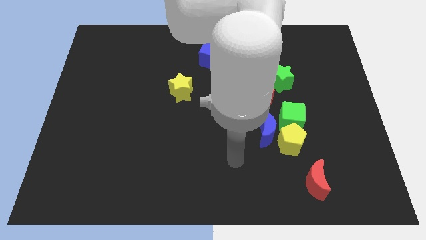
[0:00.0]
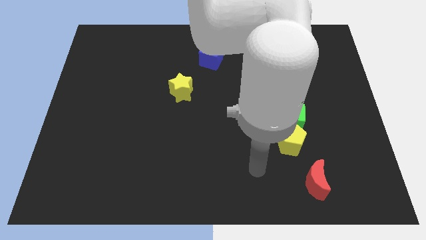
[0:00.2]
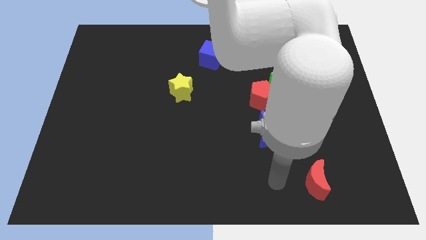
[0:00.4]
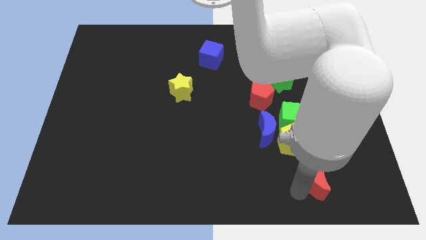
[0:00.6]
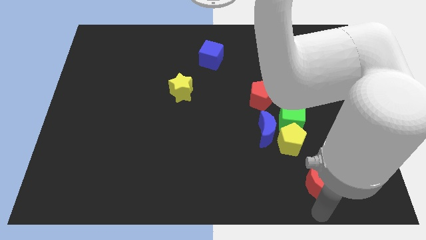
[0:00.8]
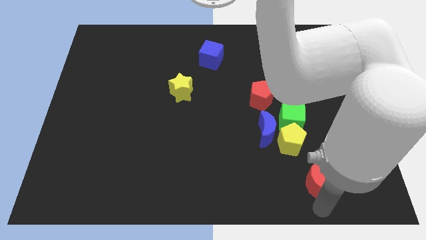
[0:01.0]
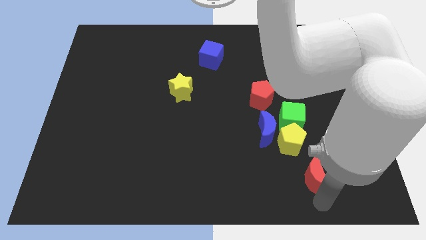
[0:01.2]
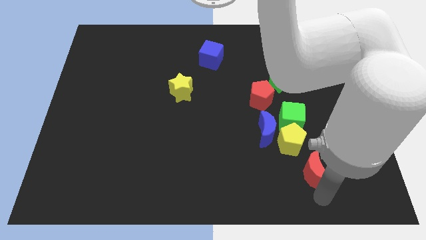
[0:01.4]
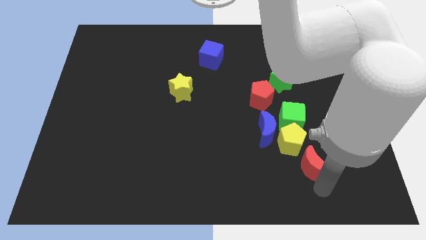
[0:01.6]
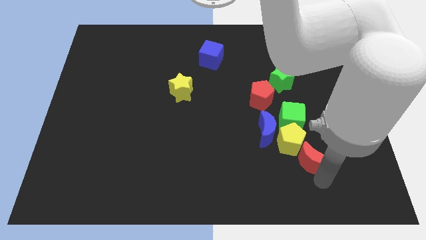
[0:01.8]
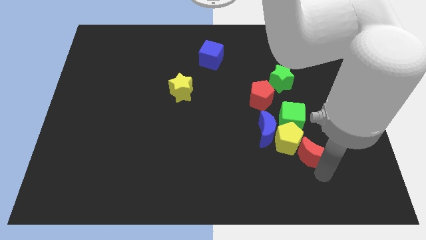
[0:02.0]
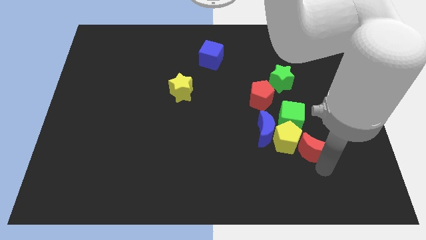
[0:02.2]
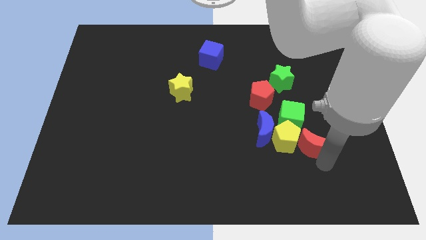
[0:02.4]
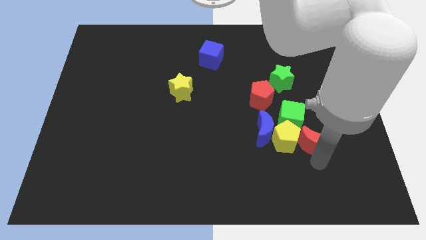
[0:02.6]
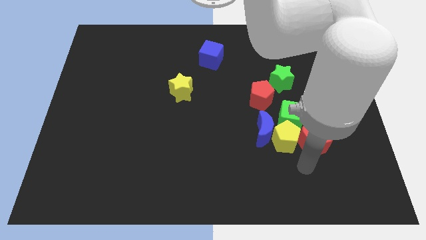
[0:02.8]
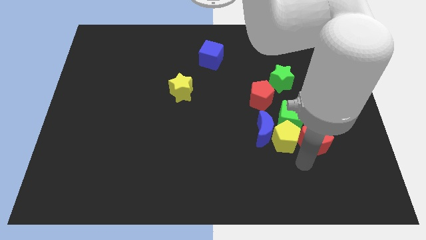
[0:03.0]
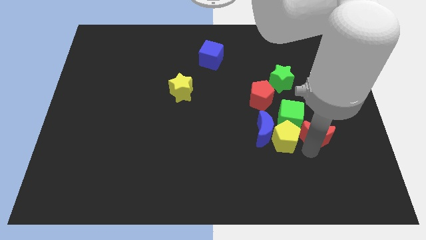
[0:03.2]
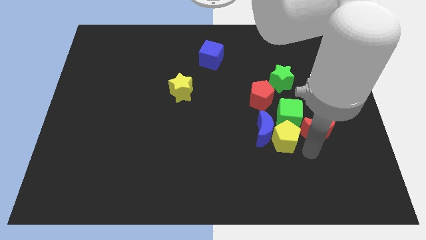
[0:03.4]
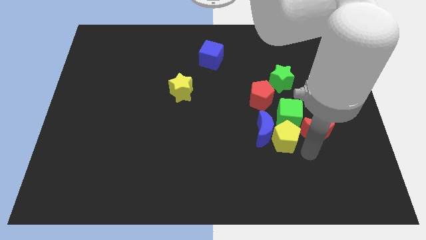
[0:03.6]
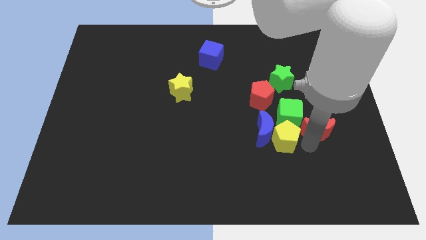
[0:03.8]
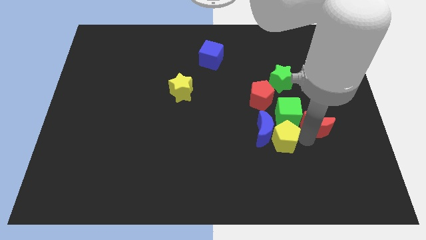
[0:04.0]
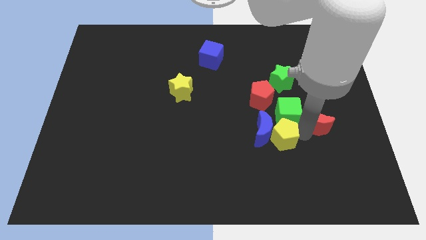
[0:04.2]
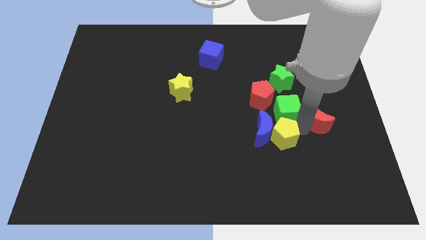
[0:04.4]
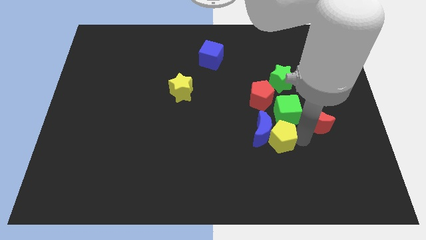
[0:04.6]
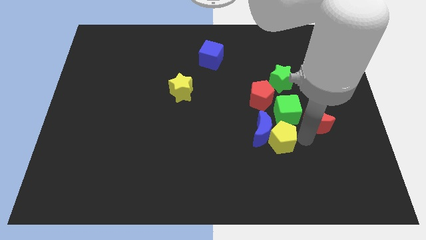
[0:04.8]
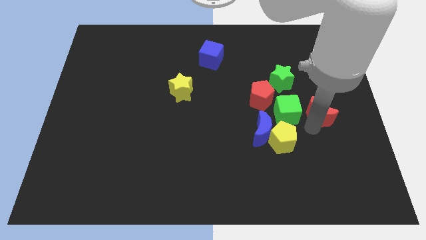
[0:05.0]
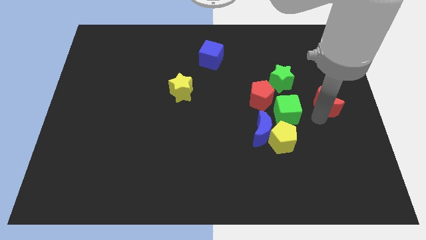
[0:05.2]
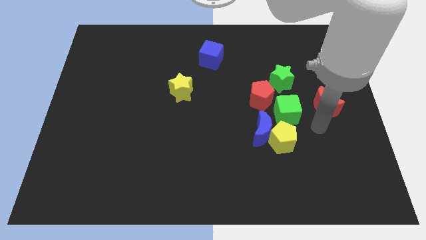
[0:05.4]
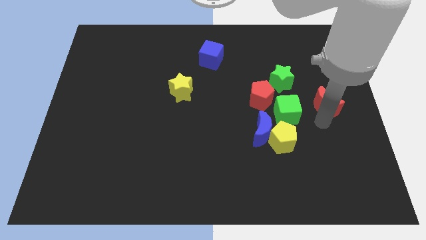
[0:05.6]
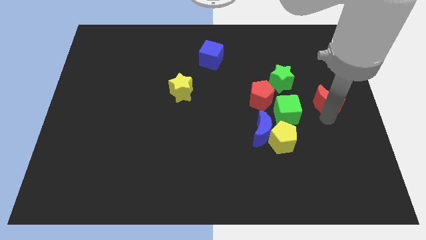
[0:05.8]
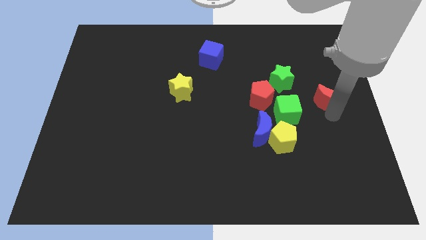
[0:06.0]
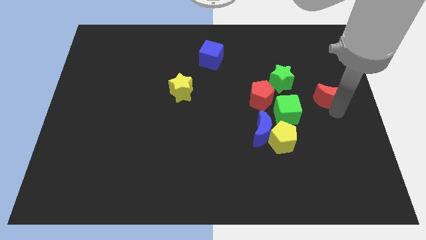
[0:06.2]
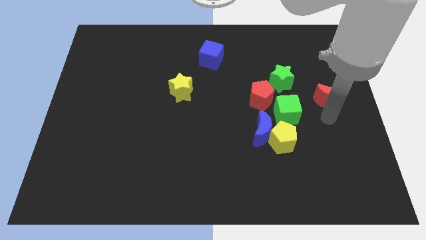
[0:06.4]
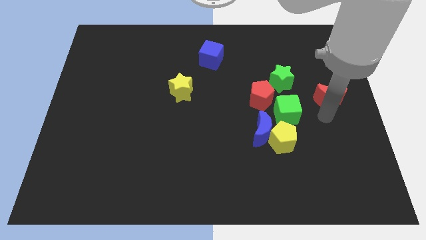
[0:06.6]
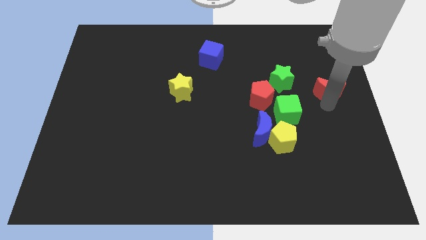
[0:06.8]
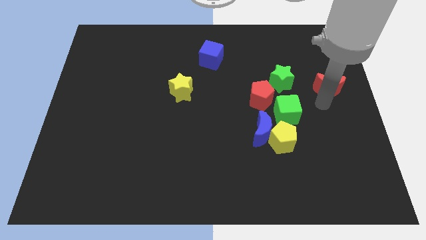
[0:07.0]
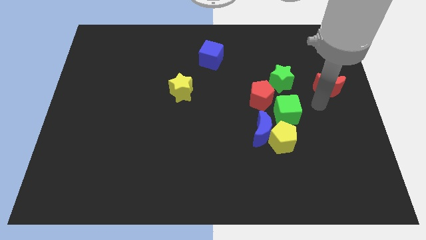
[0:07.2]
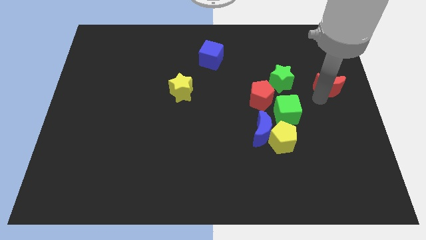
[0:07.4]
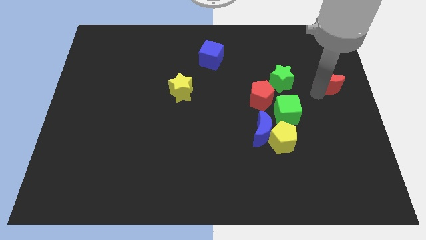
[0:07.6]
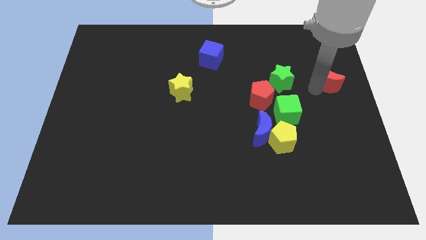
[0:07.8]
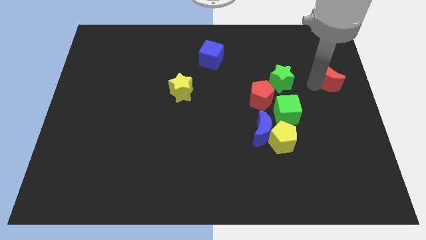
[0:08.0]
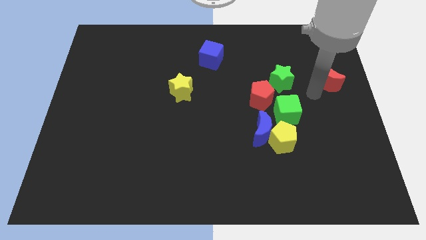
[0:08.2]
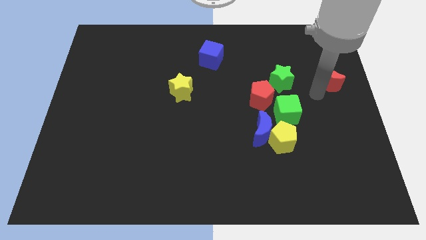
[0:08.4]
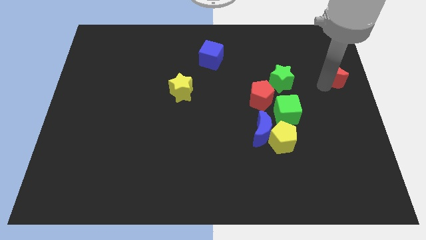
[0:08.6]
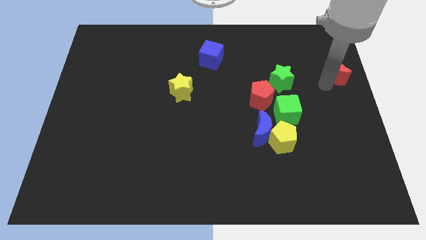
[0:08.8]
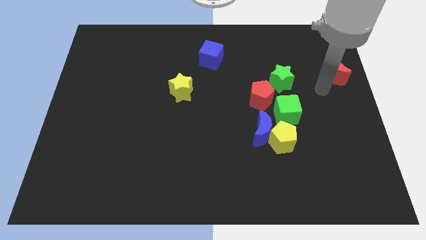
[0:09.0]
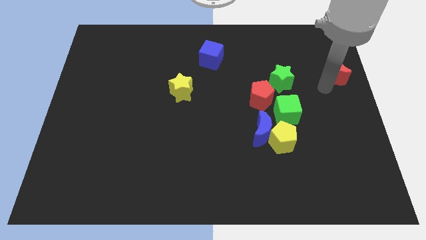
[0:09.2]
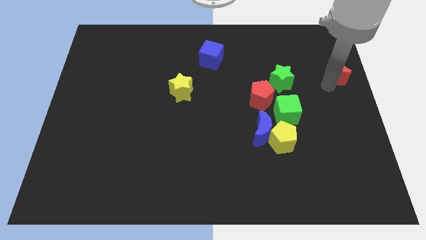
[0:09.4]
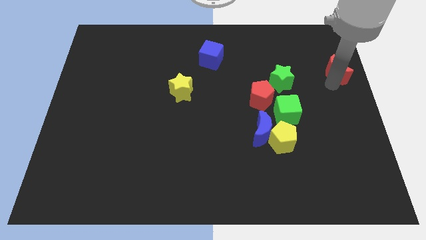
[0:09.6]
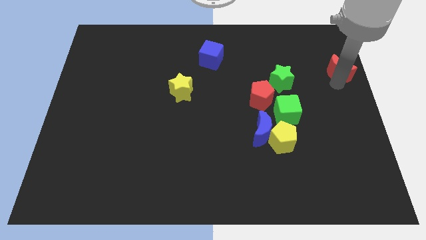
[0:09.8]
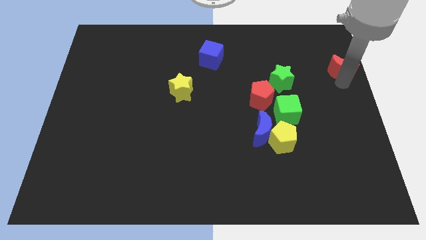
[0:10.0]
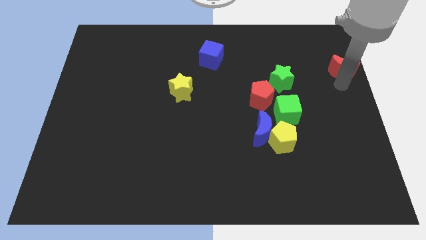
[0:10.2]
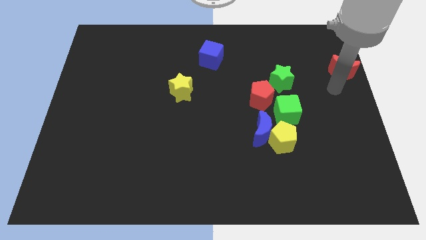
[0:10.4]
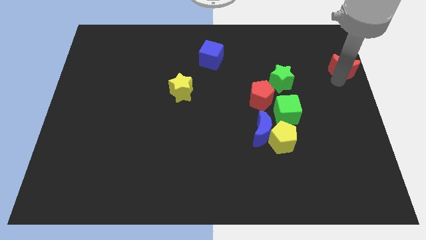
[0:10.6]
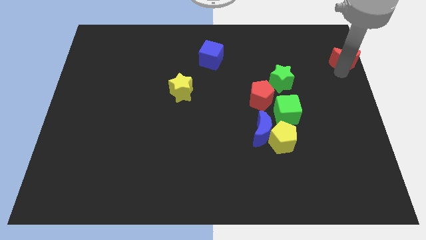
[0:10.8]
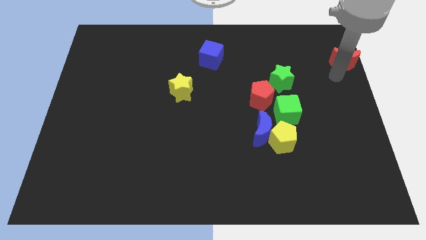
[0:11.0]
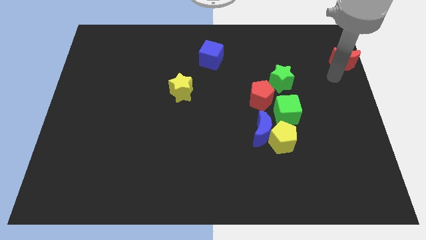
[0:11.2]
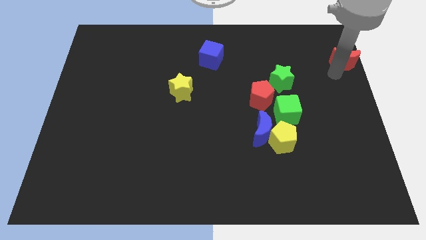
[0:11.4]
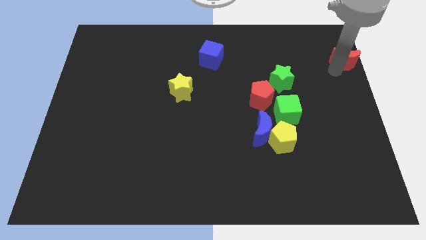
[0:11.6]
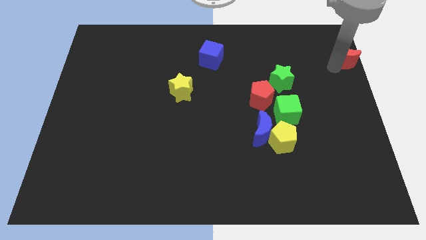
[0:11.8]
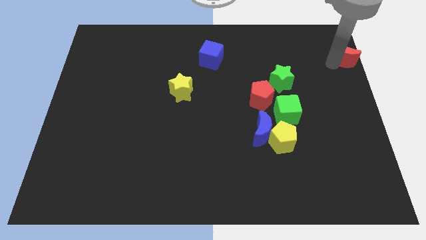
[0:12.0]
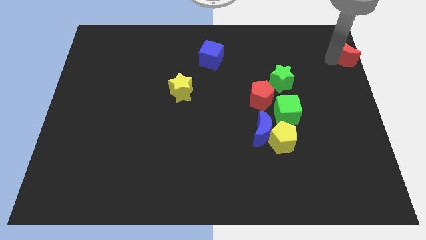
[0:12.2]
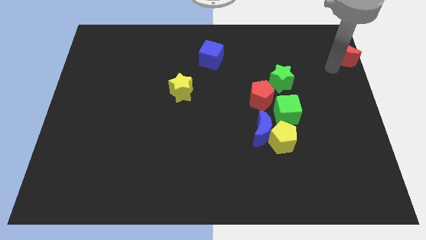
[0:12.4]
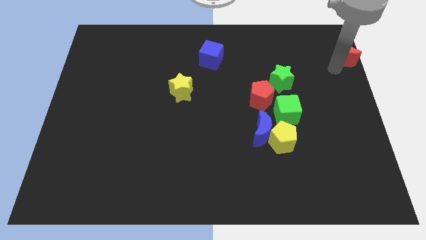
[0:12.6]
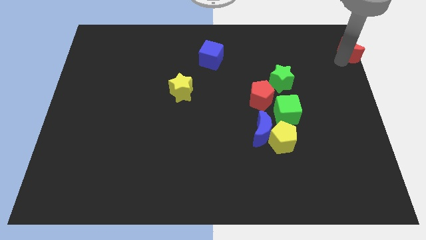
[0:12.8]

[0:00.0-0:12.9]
move the red moon to the top right
